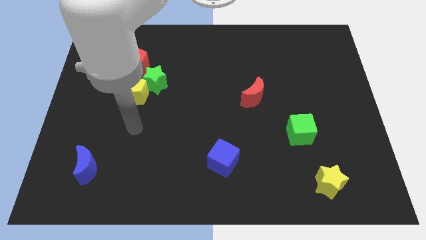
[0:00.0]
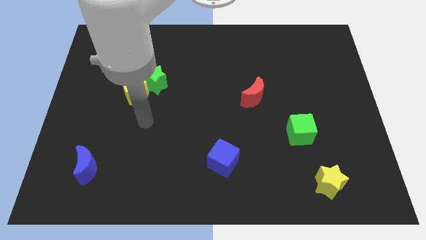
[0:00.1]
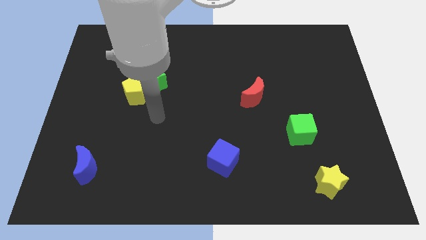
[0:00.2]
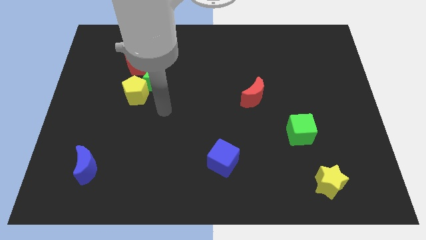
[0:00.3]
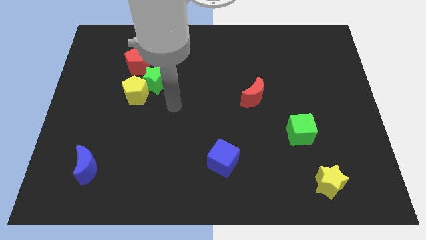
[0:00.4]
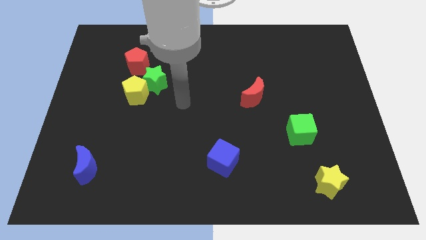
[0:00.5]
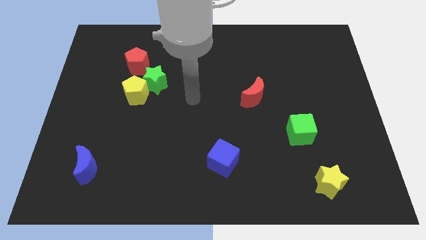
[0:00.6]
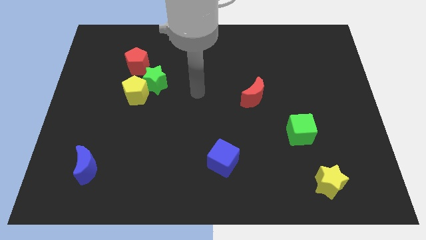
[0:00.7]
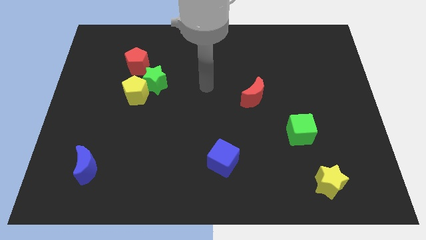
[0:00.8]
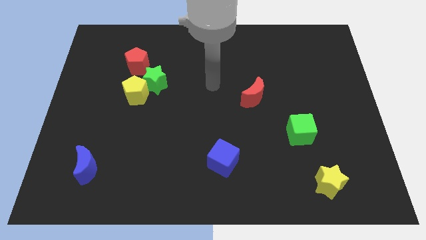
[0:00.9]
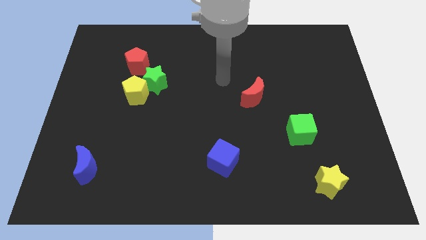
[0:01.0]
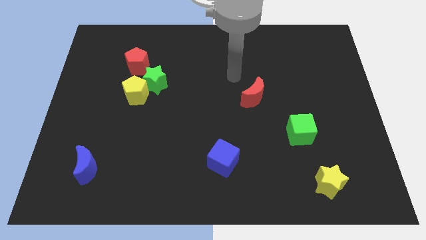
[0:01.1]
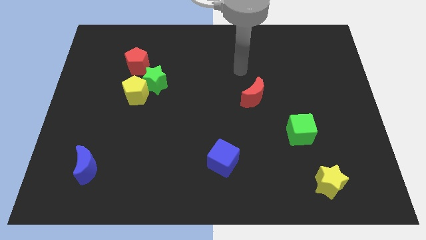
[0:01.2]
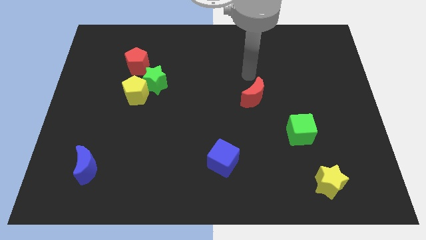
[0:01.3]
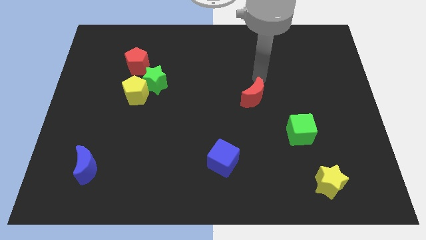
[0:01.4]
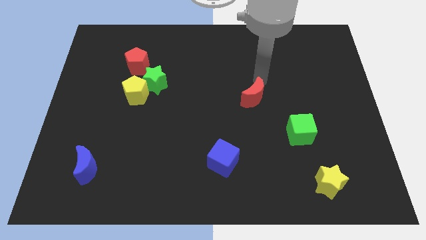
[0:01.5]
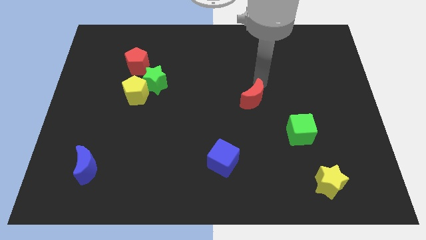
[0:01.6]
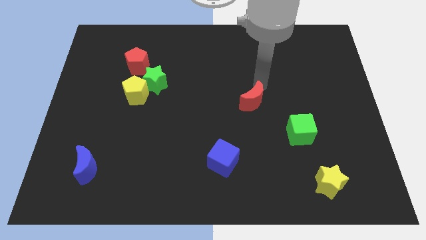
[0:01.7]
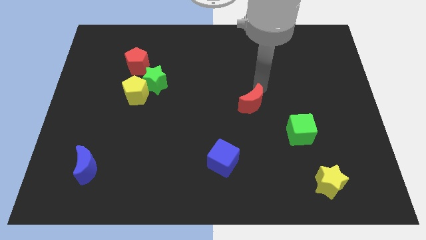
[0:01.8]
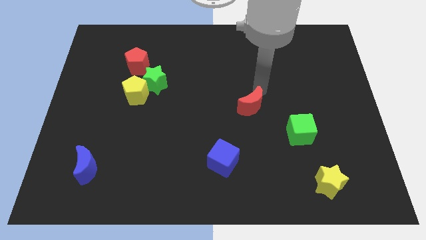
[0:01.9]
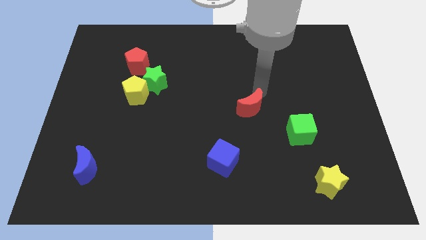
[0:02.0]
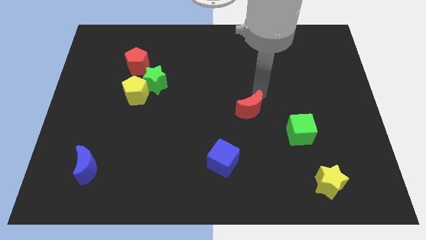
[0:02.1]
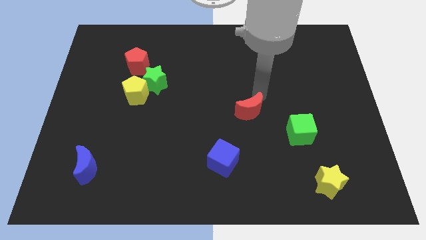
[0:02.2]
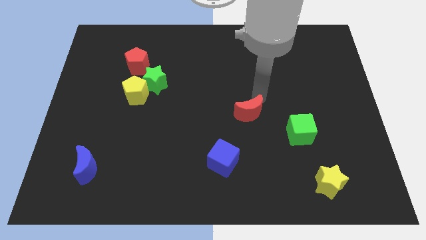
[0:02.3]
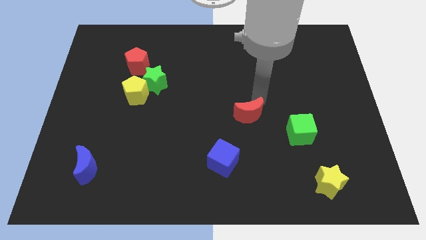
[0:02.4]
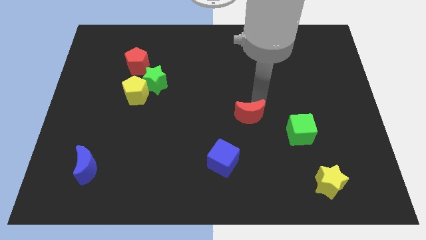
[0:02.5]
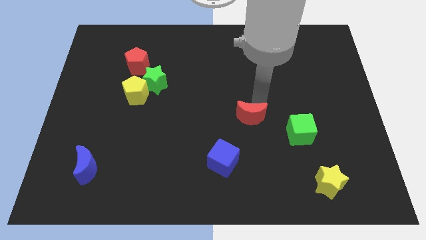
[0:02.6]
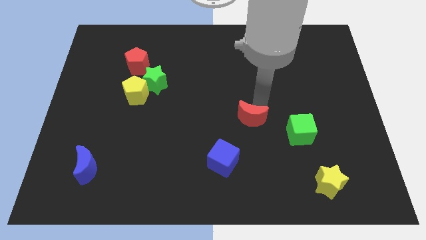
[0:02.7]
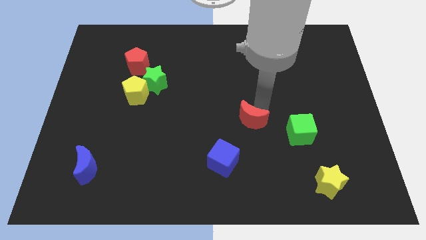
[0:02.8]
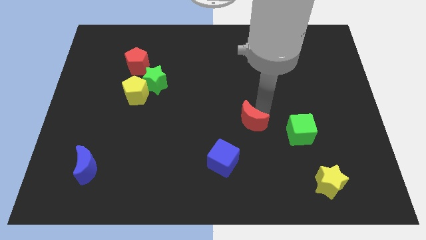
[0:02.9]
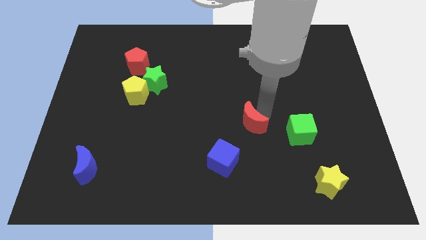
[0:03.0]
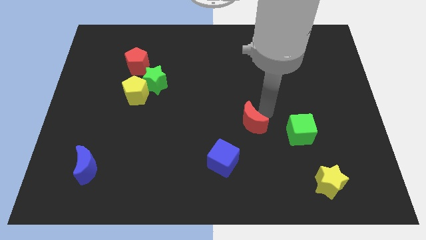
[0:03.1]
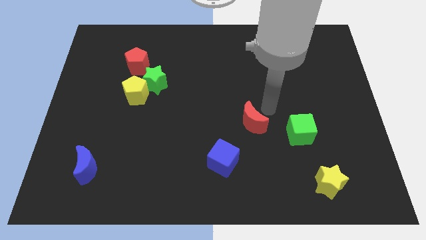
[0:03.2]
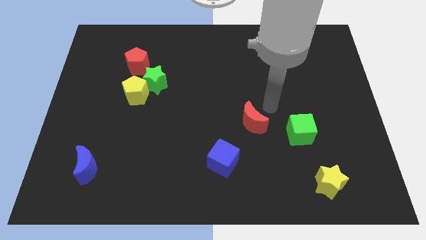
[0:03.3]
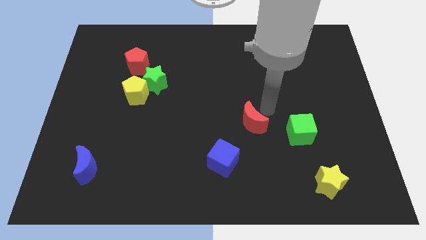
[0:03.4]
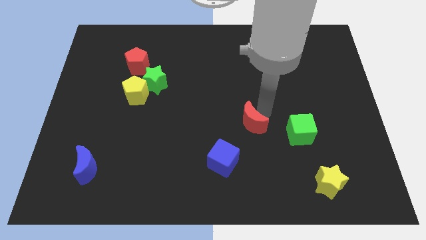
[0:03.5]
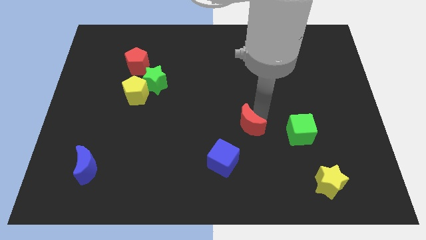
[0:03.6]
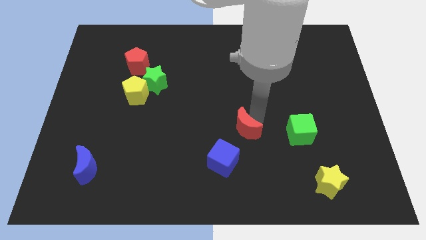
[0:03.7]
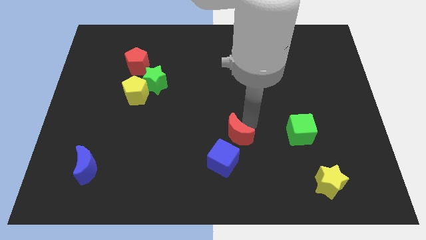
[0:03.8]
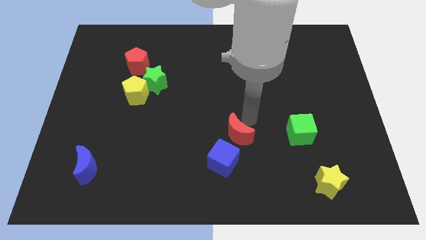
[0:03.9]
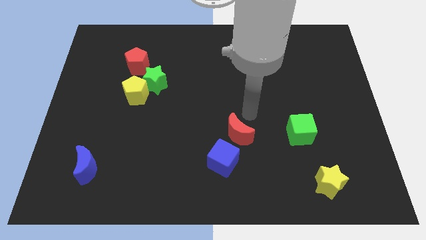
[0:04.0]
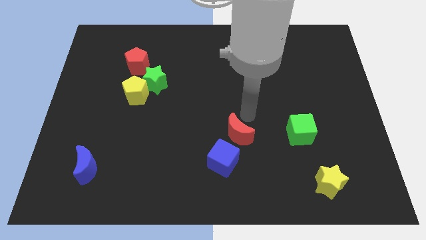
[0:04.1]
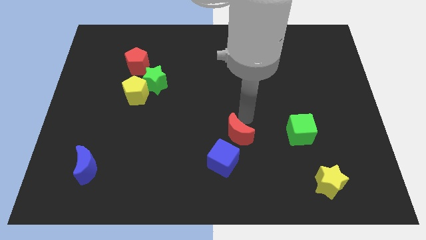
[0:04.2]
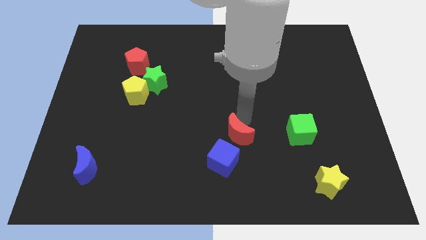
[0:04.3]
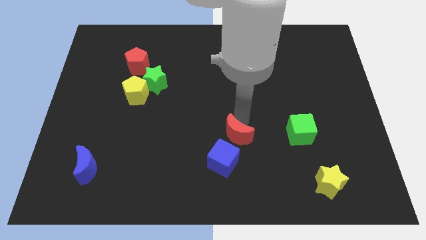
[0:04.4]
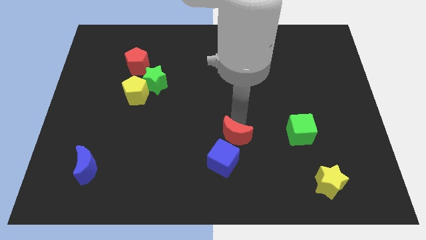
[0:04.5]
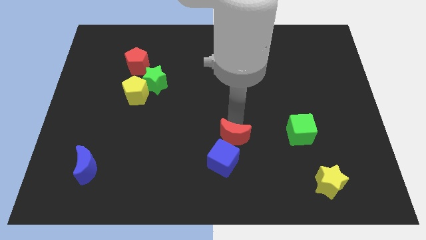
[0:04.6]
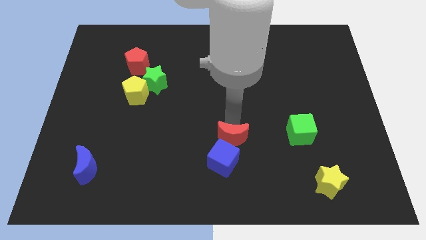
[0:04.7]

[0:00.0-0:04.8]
move the red moon towards the blue cube

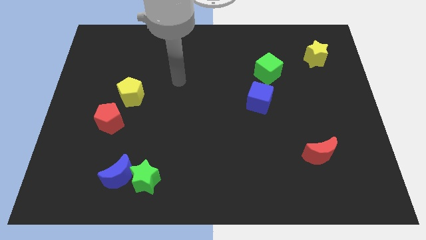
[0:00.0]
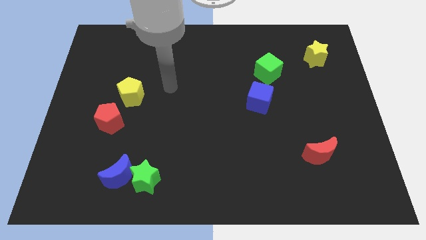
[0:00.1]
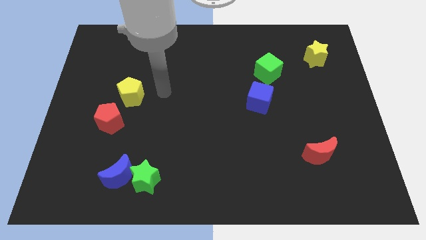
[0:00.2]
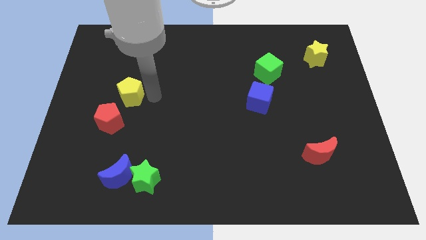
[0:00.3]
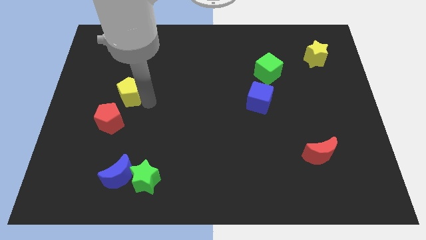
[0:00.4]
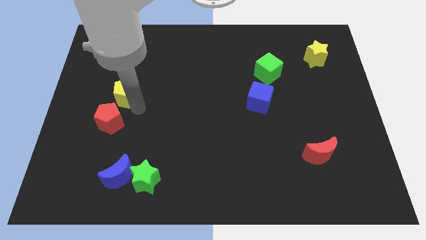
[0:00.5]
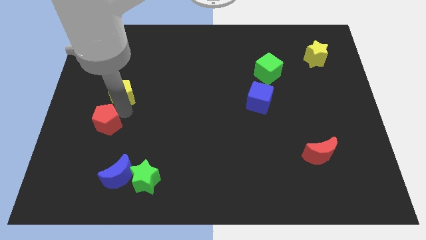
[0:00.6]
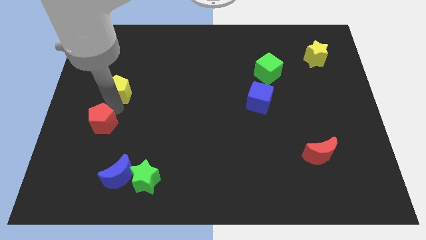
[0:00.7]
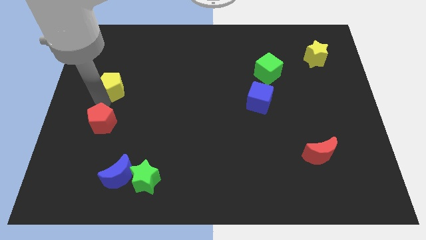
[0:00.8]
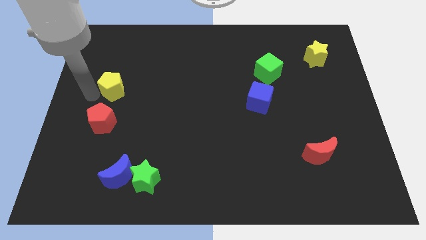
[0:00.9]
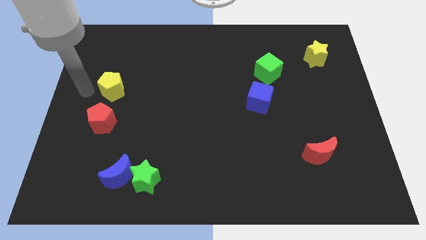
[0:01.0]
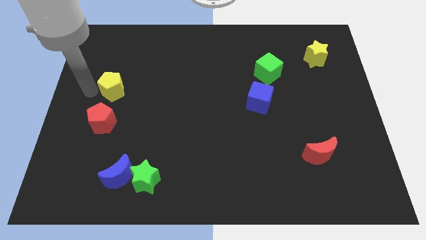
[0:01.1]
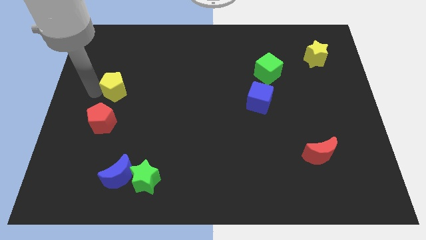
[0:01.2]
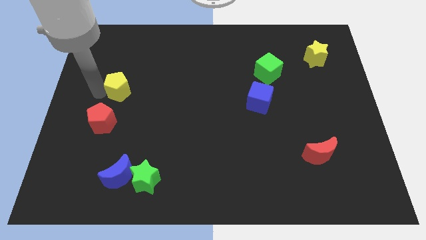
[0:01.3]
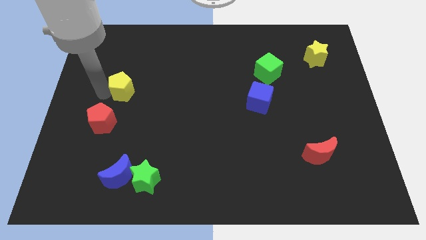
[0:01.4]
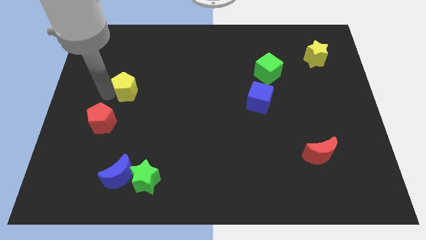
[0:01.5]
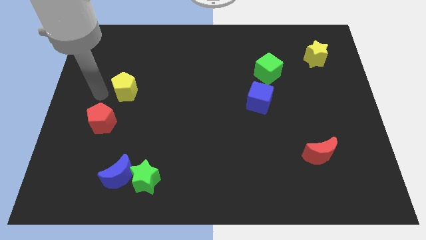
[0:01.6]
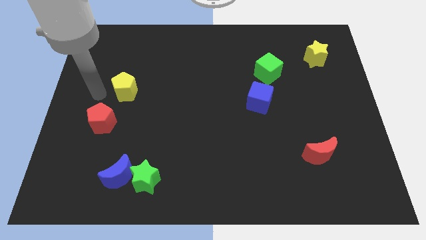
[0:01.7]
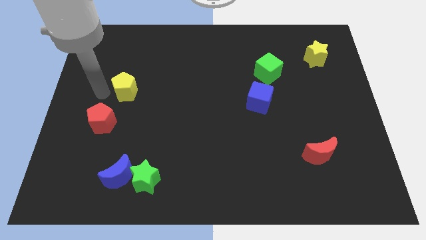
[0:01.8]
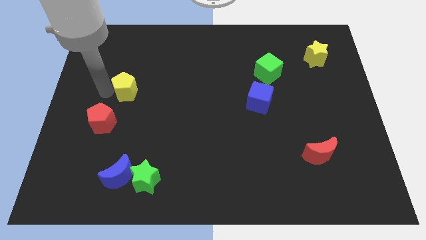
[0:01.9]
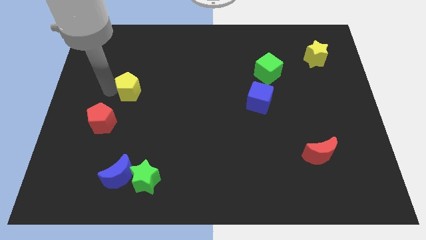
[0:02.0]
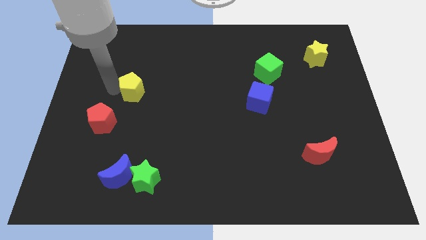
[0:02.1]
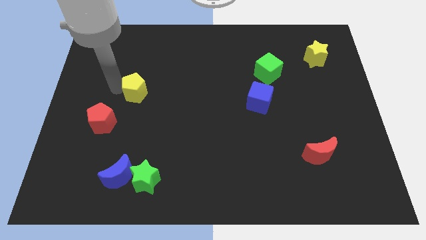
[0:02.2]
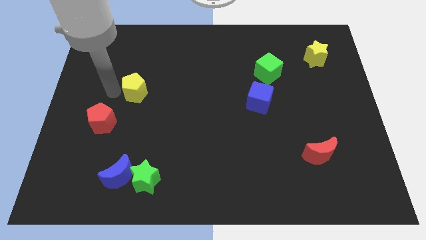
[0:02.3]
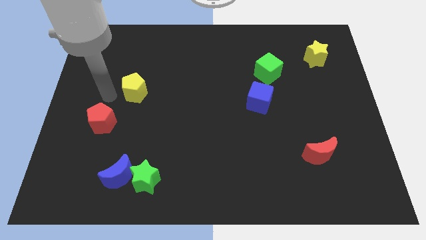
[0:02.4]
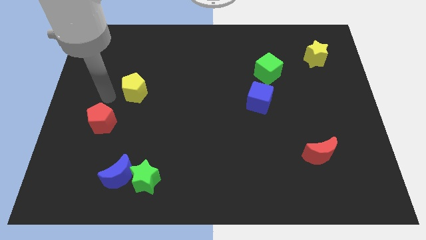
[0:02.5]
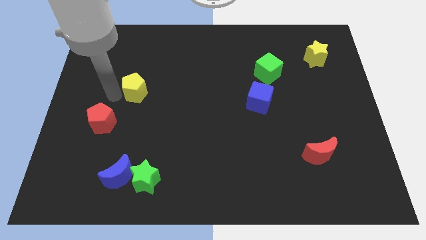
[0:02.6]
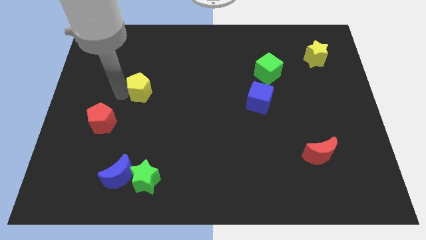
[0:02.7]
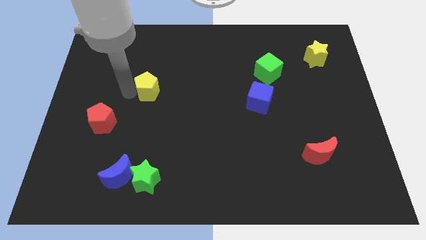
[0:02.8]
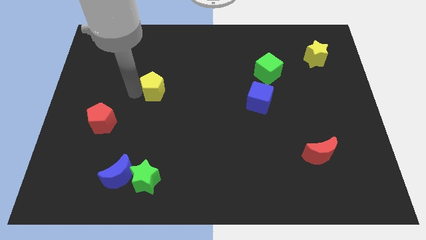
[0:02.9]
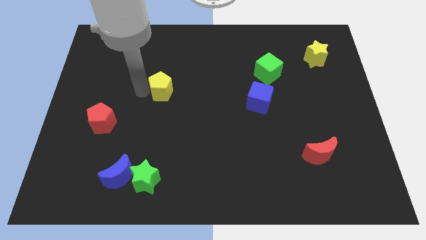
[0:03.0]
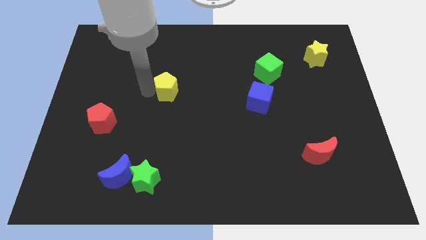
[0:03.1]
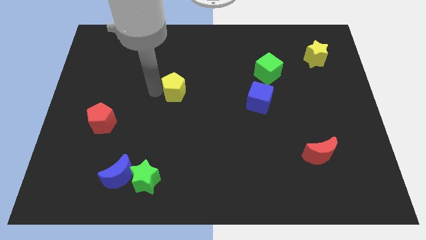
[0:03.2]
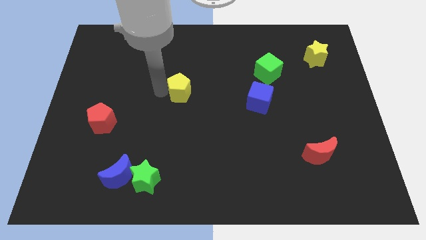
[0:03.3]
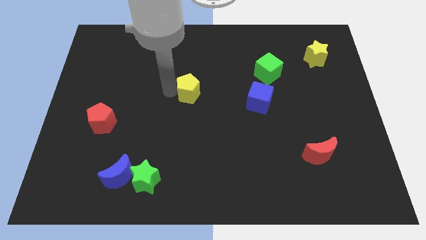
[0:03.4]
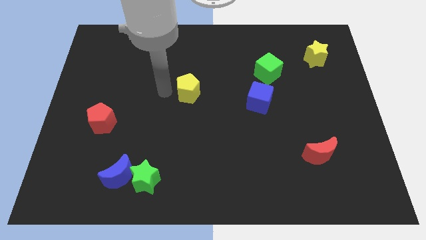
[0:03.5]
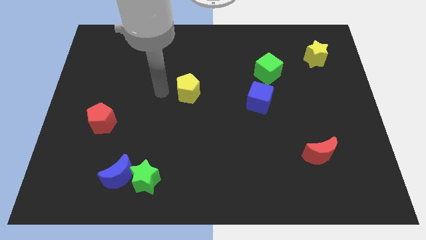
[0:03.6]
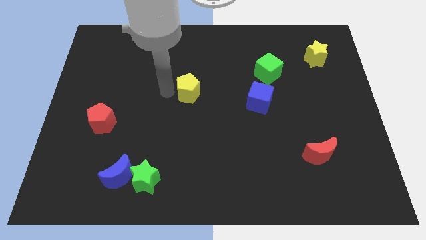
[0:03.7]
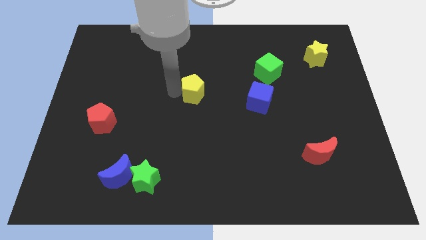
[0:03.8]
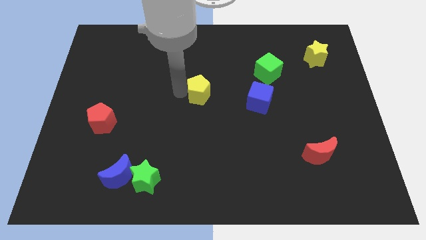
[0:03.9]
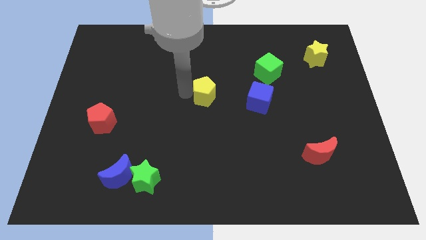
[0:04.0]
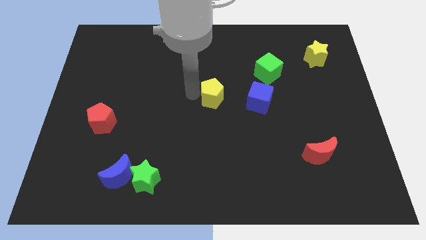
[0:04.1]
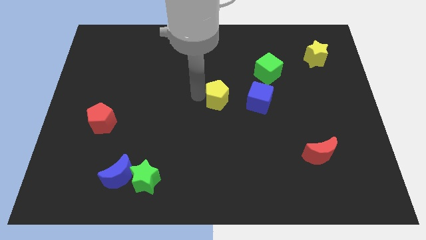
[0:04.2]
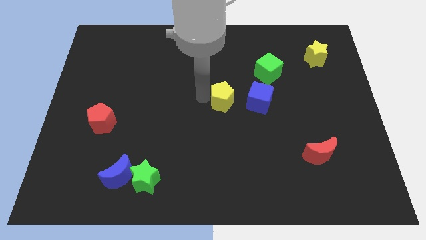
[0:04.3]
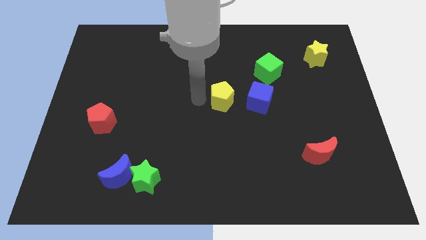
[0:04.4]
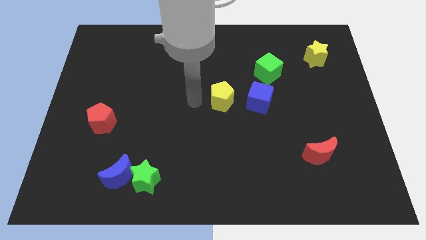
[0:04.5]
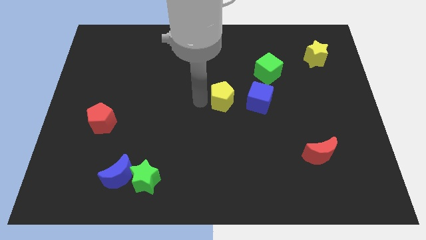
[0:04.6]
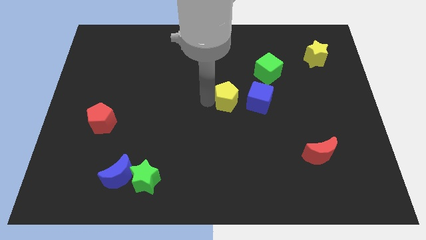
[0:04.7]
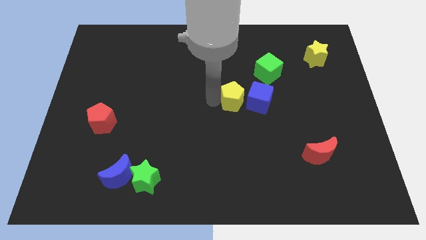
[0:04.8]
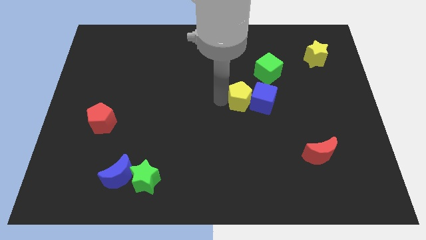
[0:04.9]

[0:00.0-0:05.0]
slide the yellow pentagon close to the blue cube
